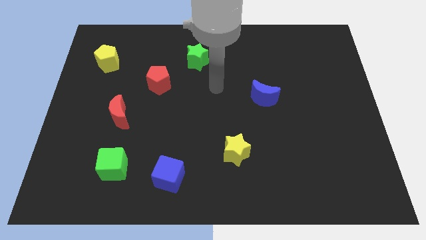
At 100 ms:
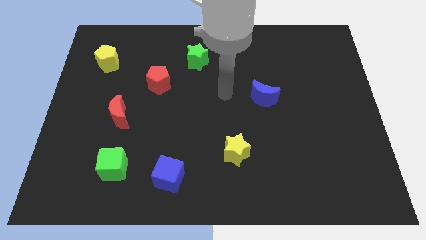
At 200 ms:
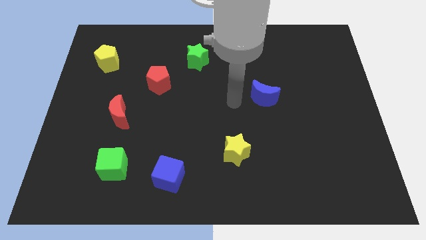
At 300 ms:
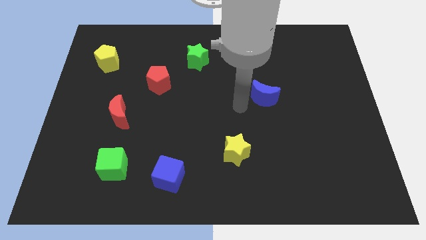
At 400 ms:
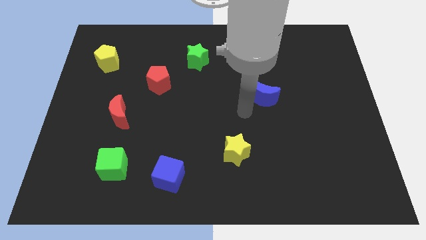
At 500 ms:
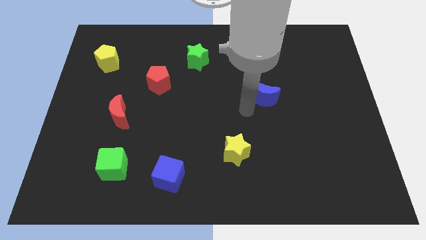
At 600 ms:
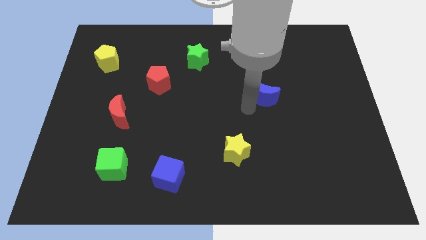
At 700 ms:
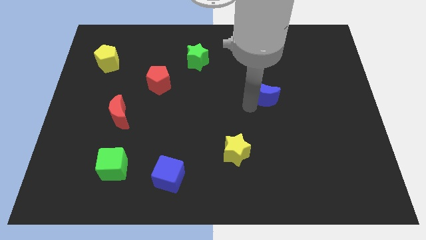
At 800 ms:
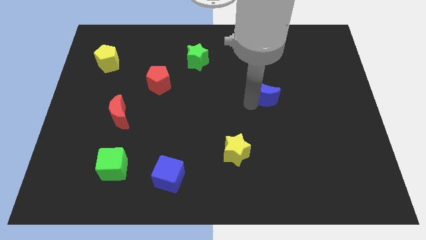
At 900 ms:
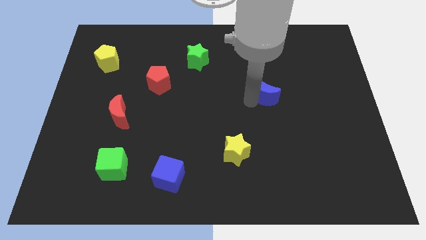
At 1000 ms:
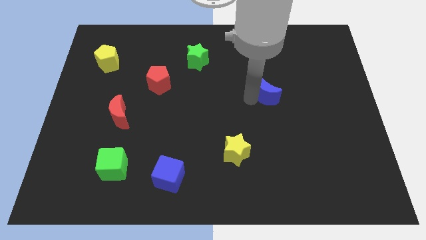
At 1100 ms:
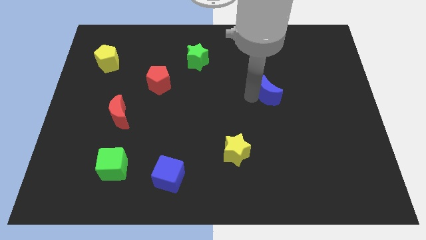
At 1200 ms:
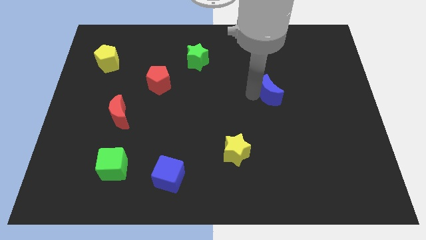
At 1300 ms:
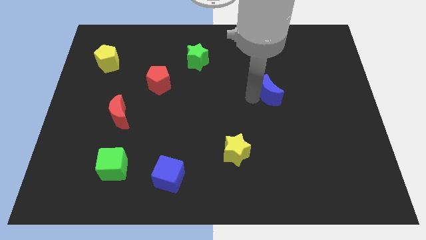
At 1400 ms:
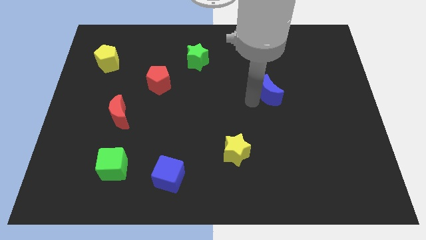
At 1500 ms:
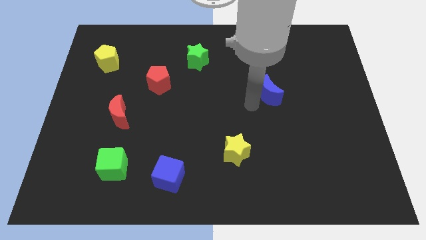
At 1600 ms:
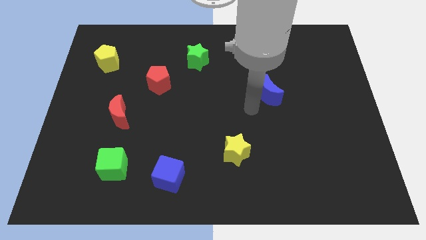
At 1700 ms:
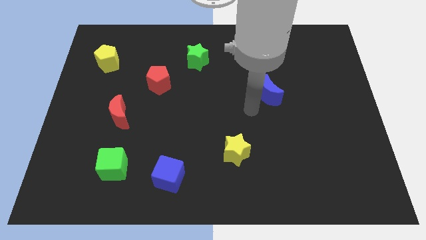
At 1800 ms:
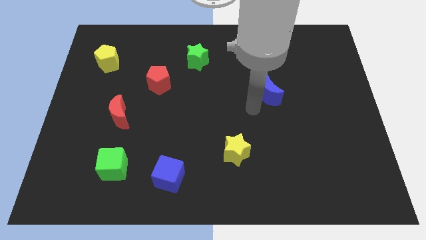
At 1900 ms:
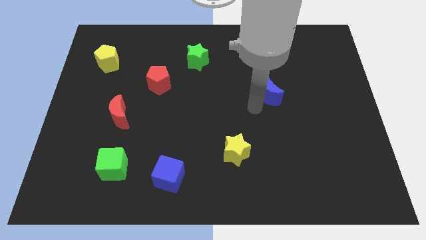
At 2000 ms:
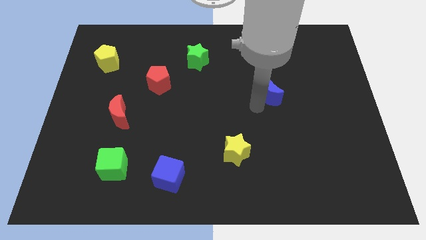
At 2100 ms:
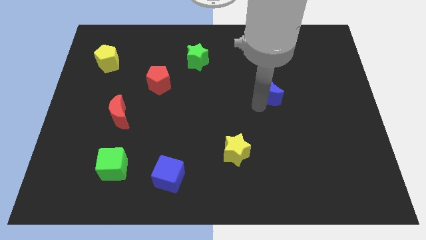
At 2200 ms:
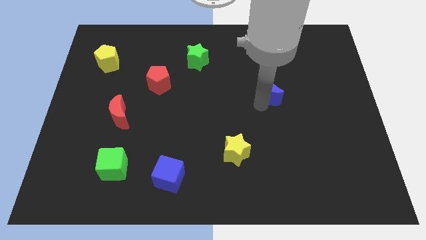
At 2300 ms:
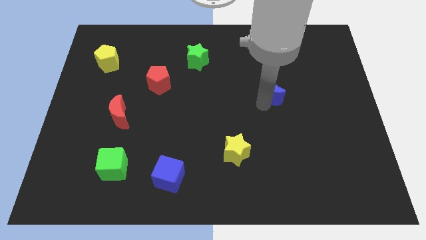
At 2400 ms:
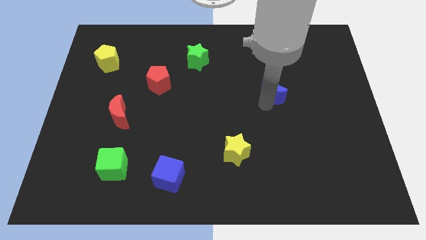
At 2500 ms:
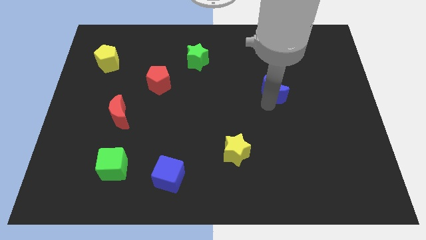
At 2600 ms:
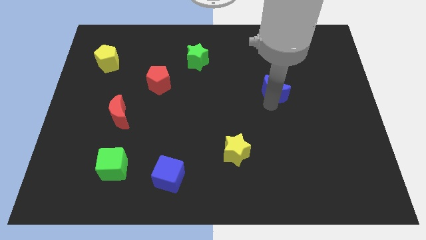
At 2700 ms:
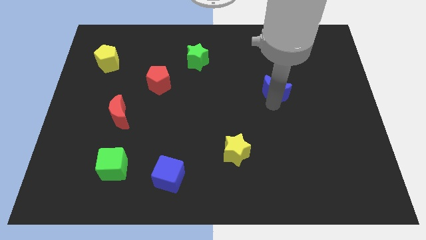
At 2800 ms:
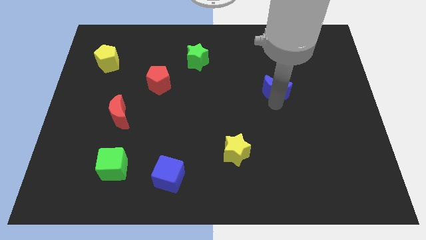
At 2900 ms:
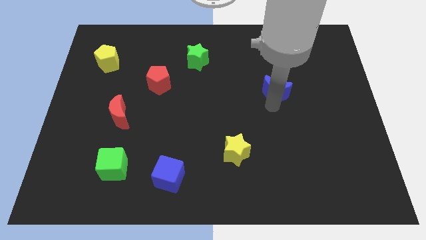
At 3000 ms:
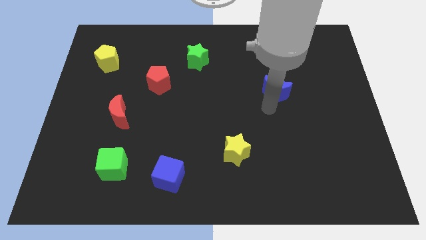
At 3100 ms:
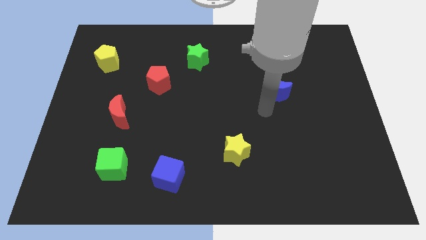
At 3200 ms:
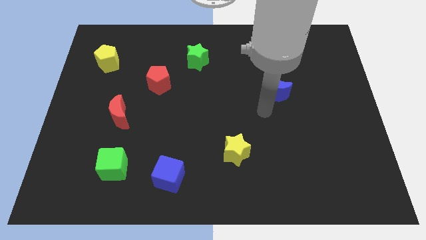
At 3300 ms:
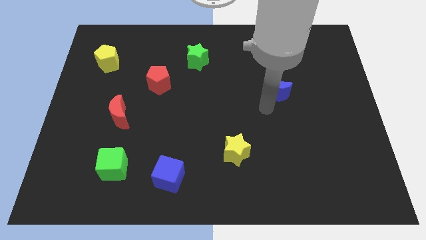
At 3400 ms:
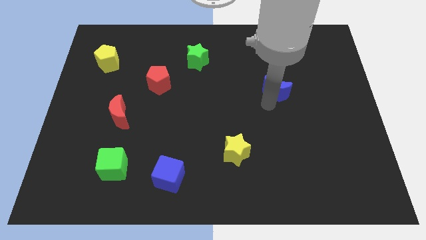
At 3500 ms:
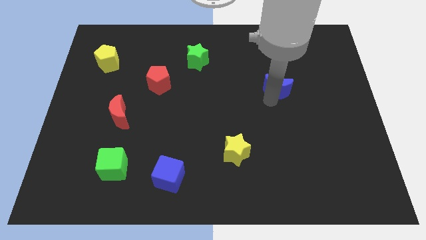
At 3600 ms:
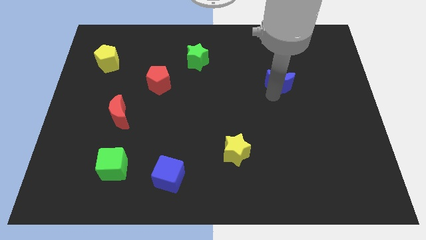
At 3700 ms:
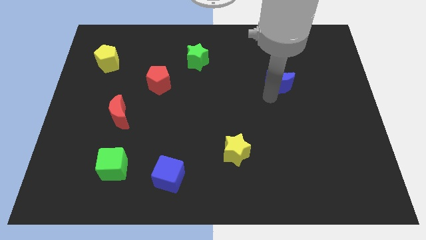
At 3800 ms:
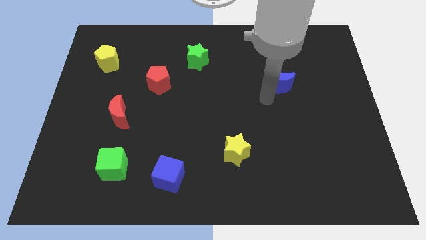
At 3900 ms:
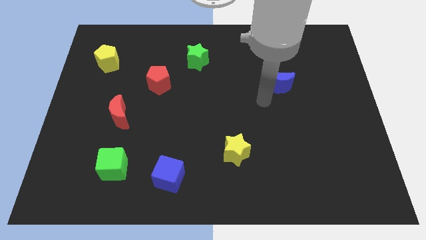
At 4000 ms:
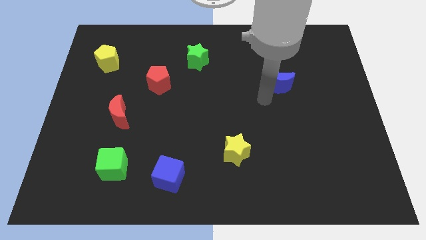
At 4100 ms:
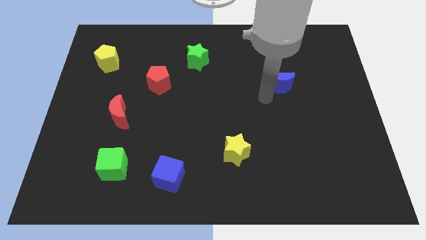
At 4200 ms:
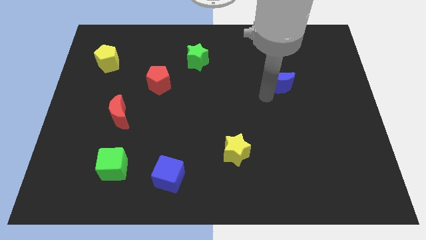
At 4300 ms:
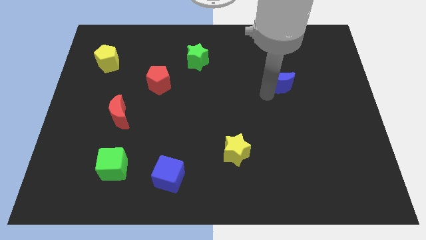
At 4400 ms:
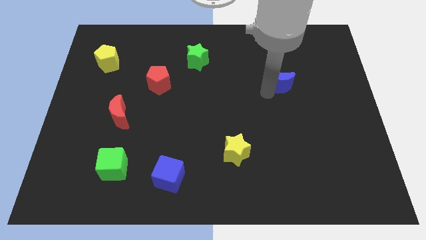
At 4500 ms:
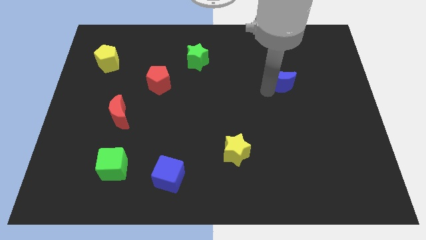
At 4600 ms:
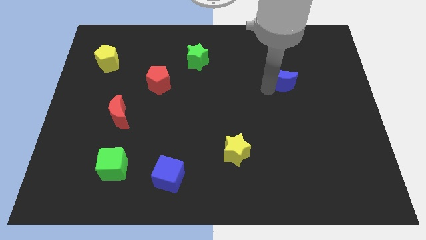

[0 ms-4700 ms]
slightly push the blue moon upwards and then right

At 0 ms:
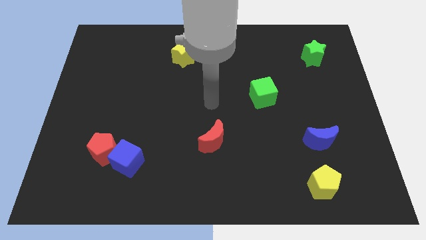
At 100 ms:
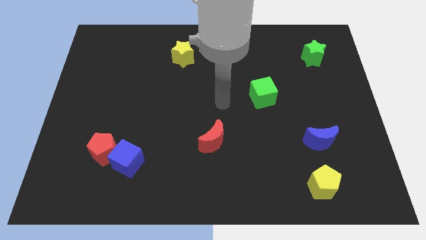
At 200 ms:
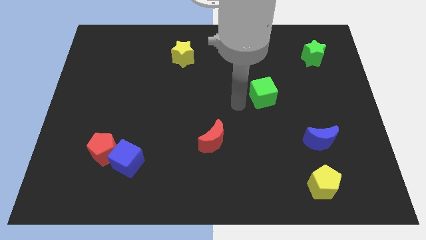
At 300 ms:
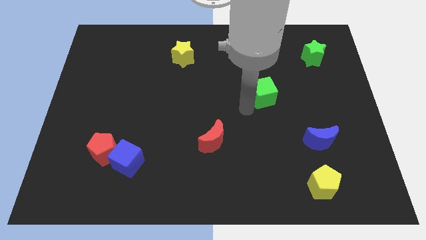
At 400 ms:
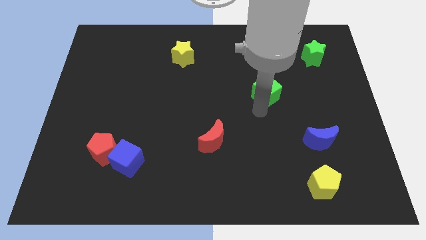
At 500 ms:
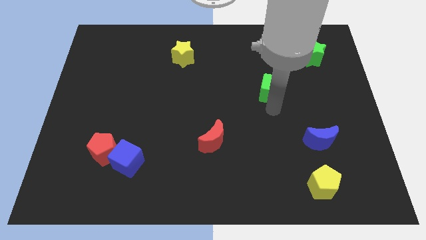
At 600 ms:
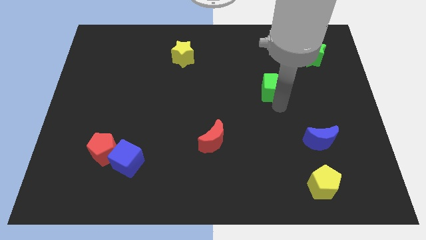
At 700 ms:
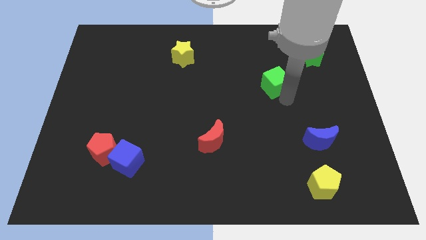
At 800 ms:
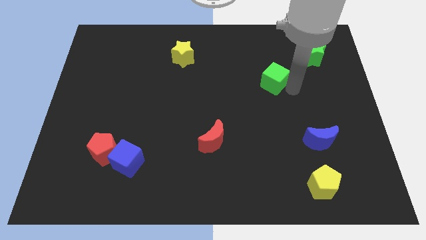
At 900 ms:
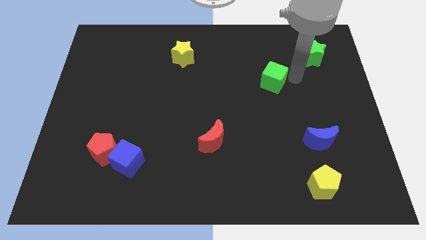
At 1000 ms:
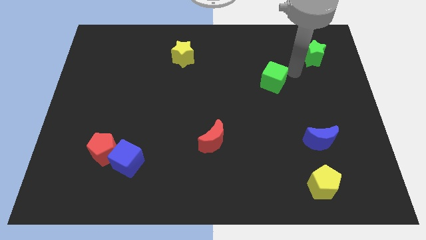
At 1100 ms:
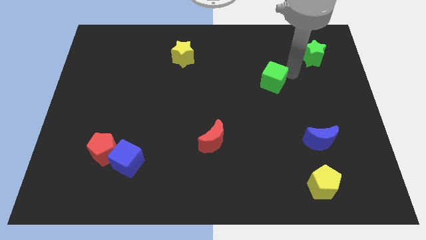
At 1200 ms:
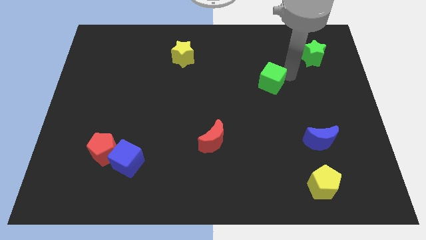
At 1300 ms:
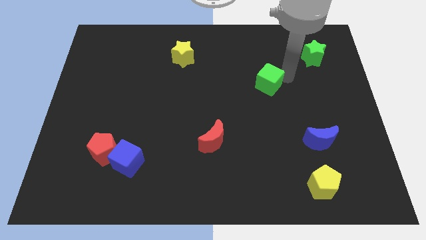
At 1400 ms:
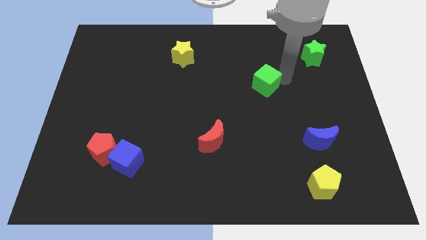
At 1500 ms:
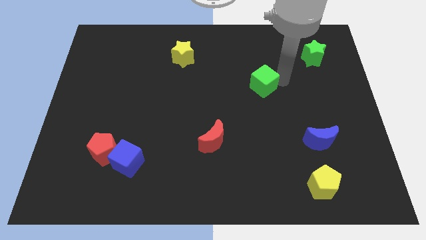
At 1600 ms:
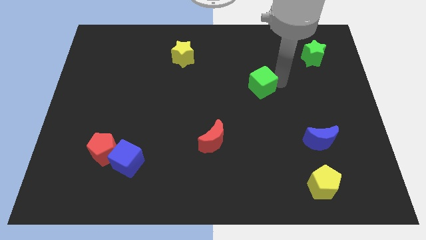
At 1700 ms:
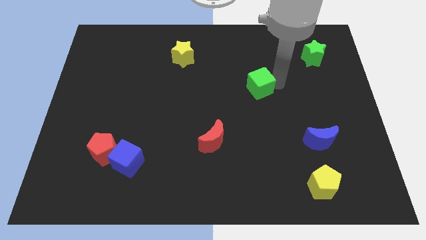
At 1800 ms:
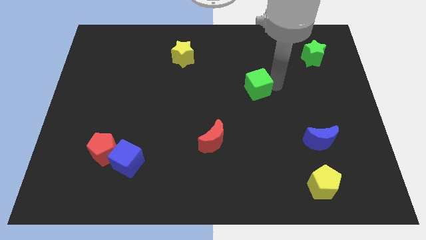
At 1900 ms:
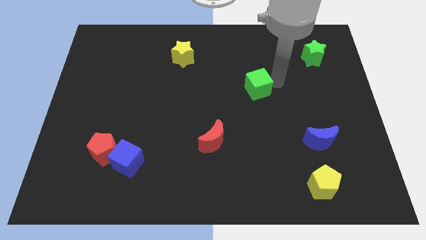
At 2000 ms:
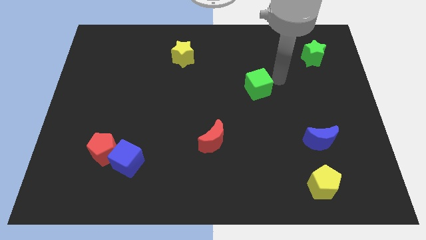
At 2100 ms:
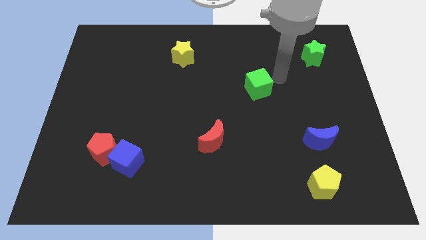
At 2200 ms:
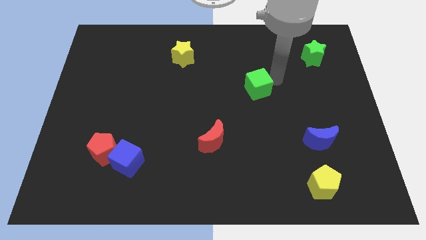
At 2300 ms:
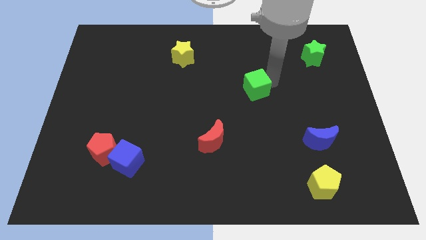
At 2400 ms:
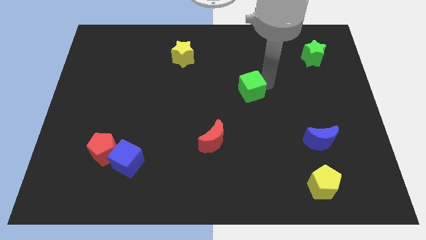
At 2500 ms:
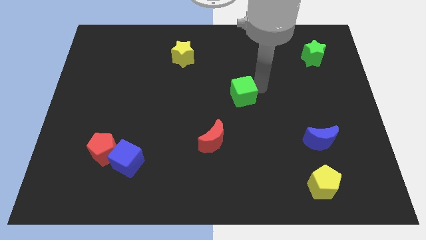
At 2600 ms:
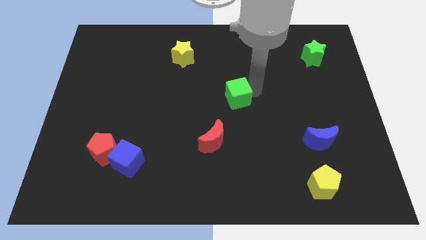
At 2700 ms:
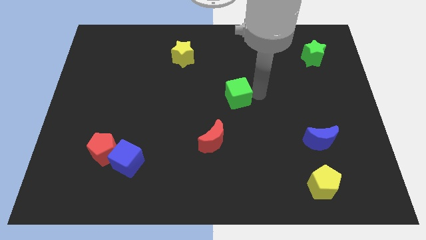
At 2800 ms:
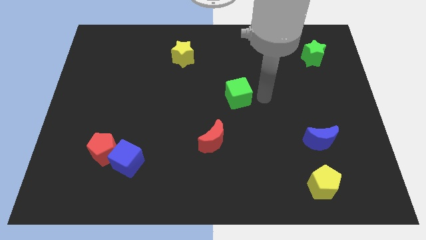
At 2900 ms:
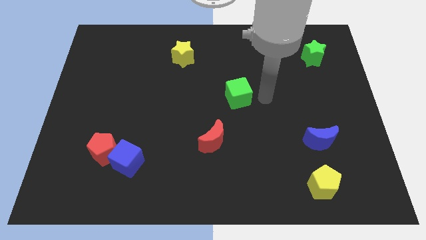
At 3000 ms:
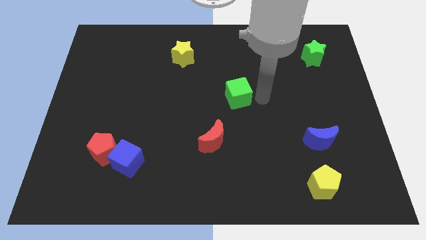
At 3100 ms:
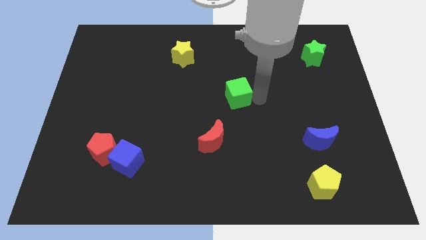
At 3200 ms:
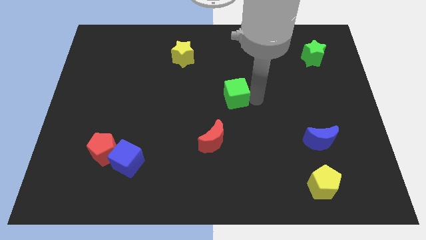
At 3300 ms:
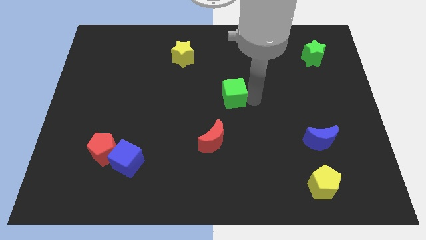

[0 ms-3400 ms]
push the green cube a little left
